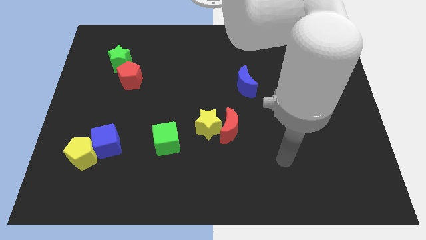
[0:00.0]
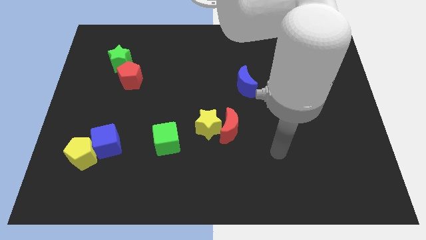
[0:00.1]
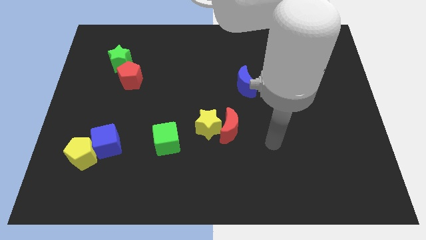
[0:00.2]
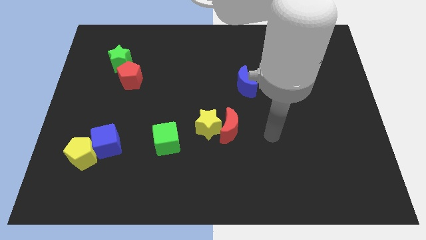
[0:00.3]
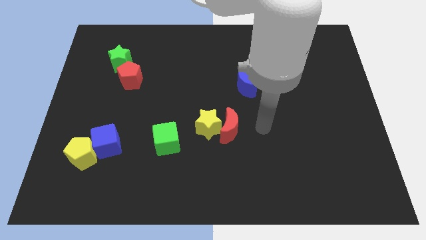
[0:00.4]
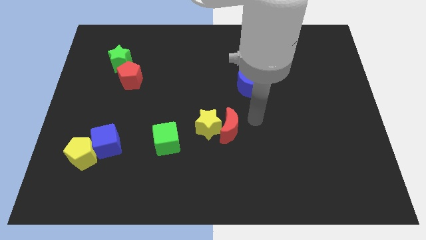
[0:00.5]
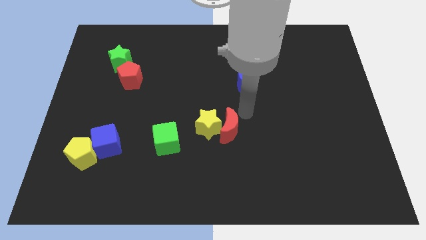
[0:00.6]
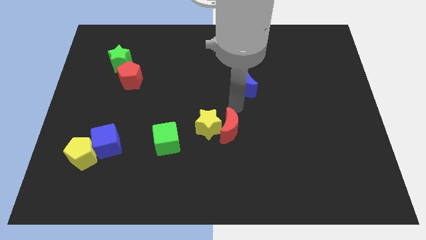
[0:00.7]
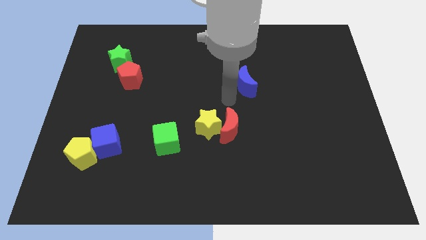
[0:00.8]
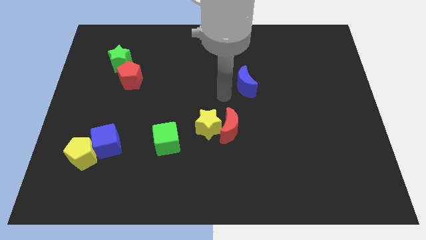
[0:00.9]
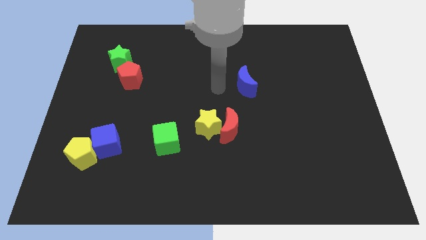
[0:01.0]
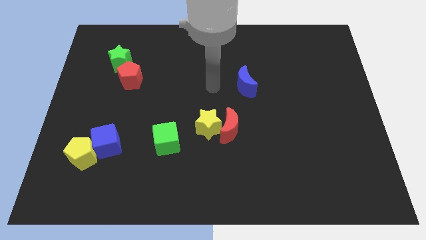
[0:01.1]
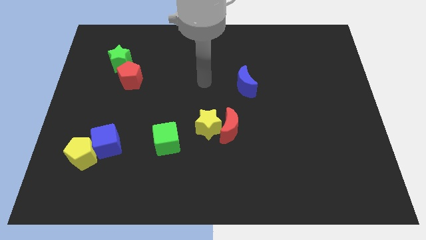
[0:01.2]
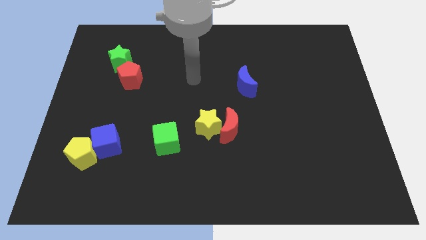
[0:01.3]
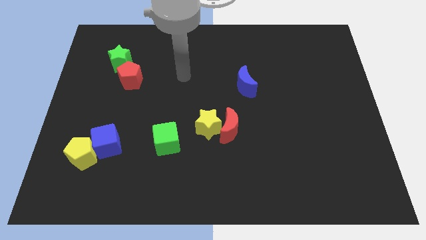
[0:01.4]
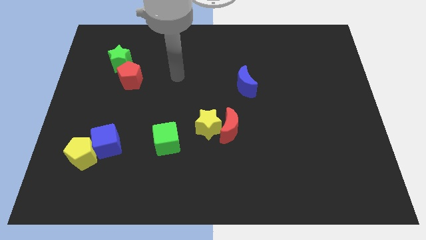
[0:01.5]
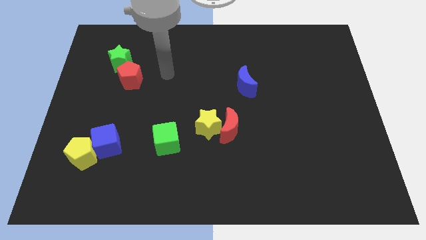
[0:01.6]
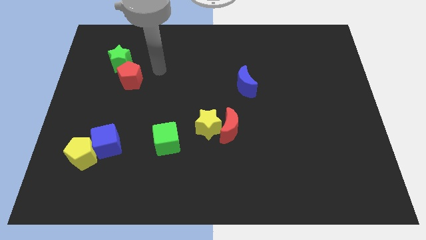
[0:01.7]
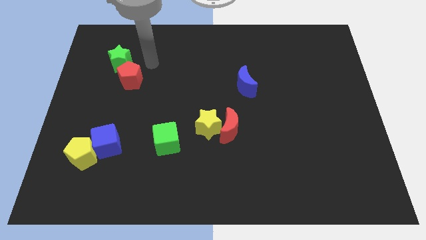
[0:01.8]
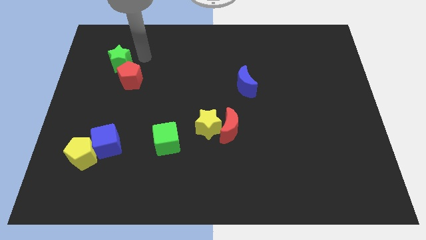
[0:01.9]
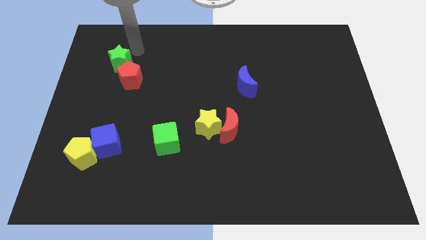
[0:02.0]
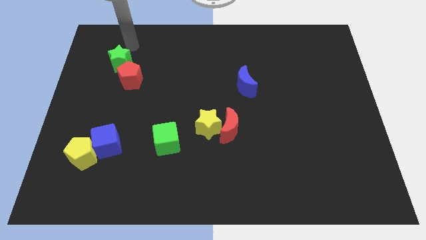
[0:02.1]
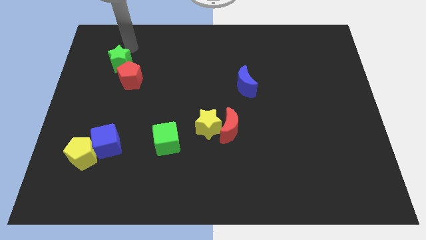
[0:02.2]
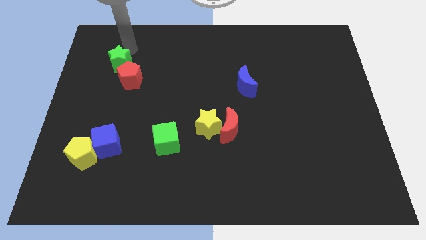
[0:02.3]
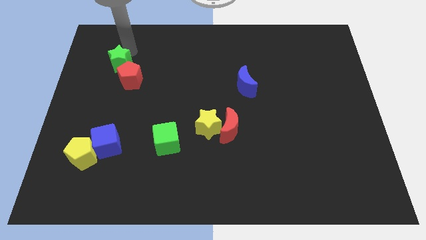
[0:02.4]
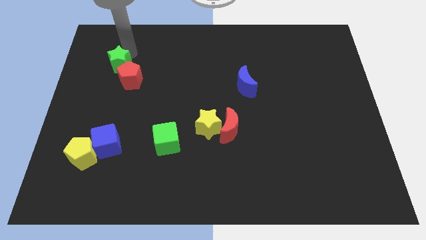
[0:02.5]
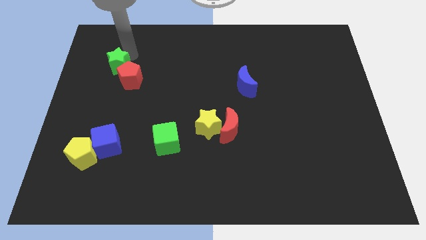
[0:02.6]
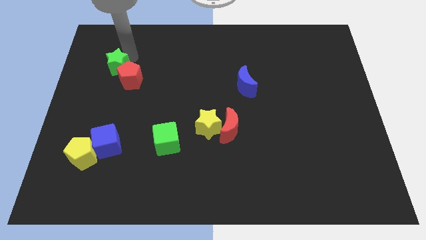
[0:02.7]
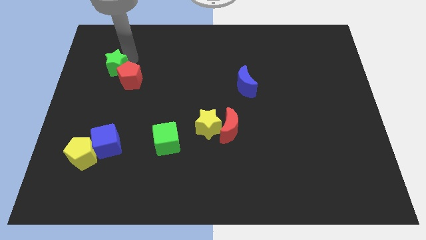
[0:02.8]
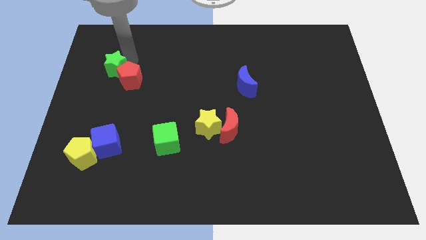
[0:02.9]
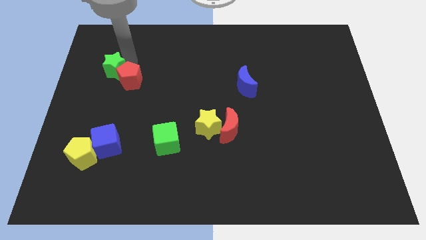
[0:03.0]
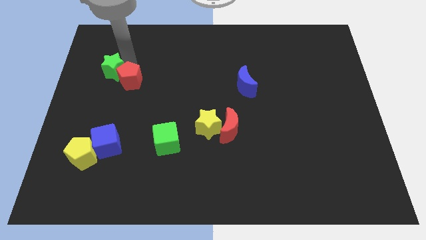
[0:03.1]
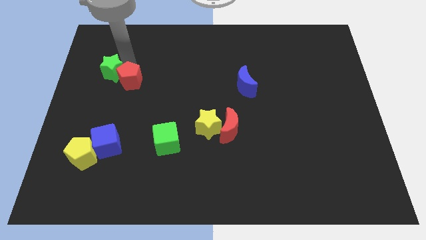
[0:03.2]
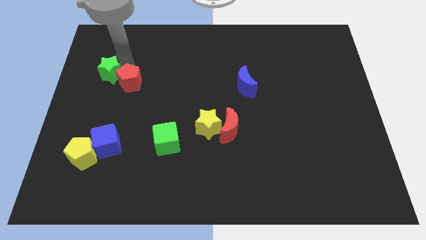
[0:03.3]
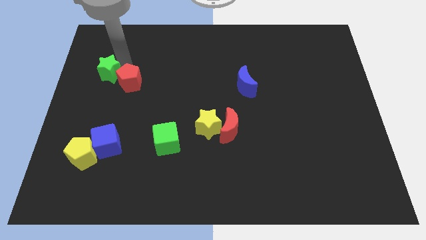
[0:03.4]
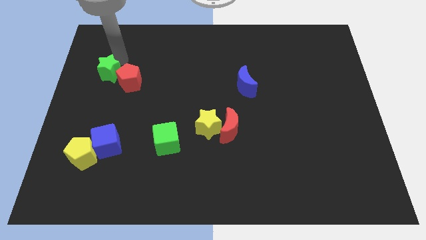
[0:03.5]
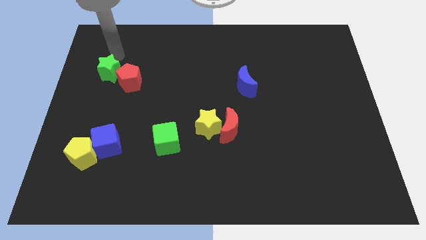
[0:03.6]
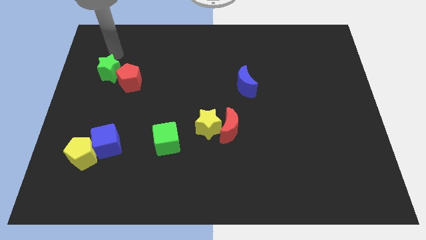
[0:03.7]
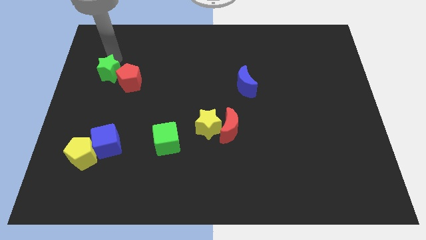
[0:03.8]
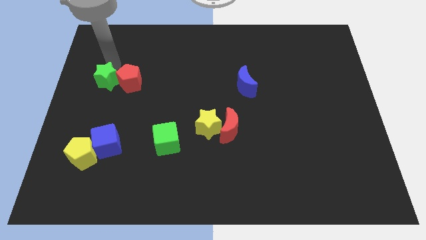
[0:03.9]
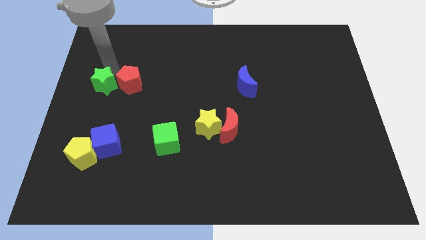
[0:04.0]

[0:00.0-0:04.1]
slightly move the green star downwards

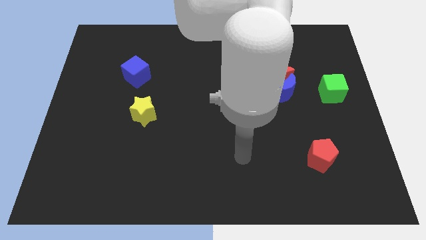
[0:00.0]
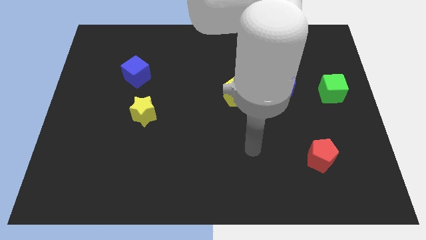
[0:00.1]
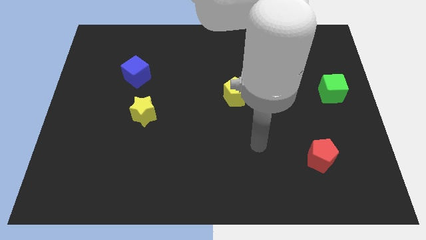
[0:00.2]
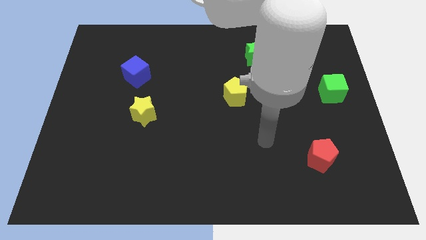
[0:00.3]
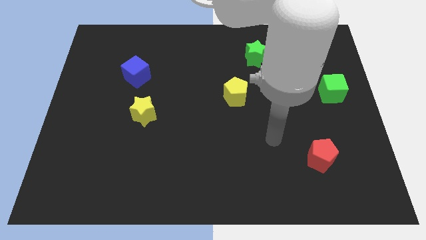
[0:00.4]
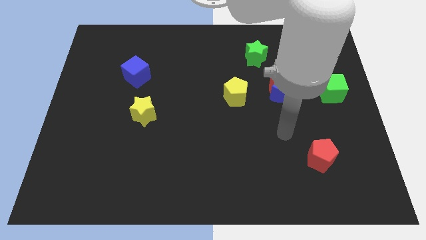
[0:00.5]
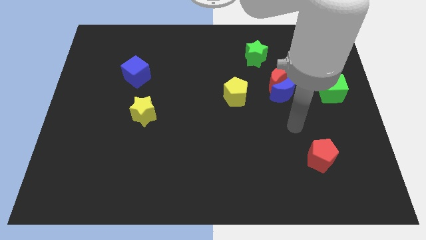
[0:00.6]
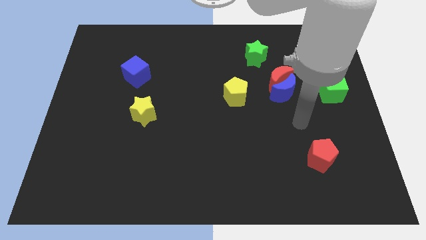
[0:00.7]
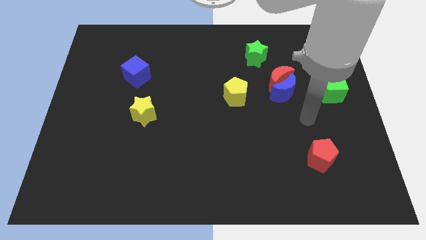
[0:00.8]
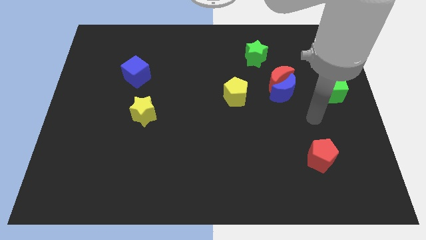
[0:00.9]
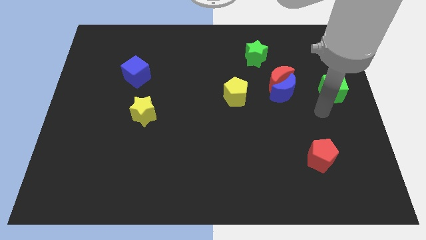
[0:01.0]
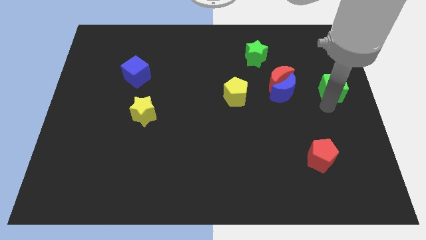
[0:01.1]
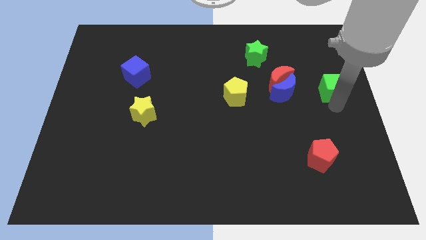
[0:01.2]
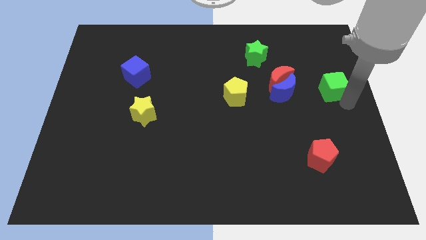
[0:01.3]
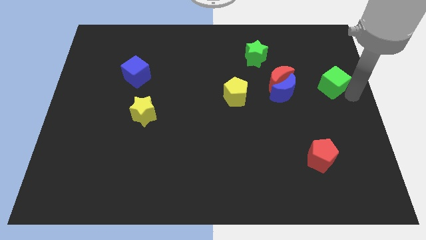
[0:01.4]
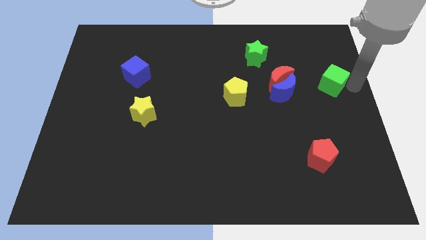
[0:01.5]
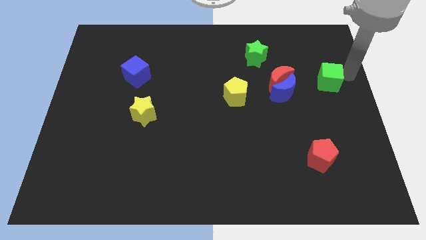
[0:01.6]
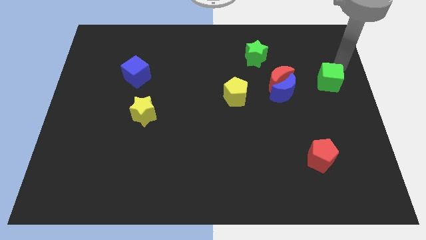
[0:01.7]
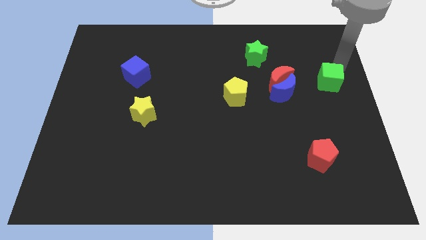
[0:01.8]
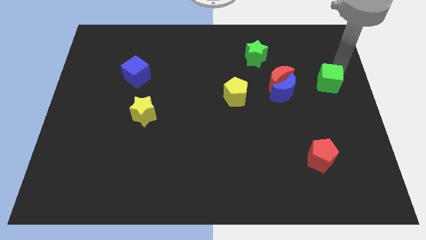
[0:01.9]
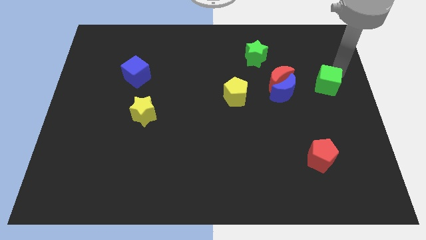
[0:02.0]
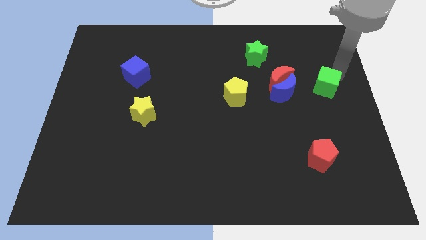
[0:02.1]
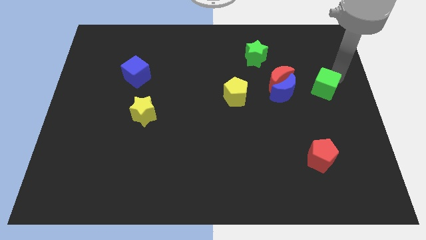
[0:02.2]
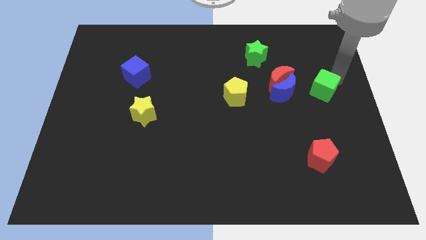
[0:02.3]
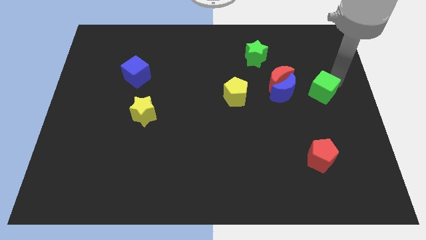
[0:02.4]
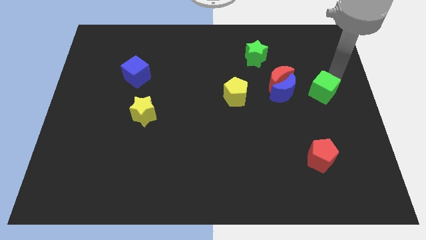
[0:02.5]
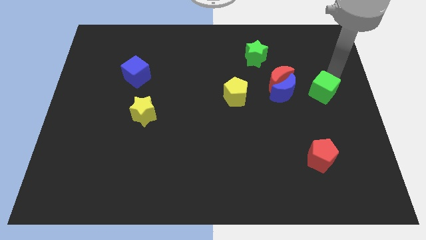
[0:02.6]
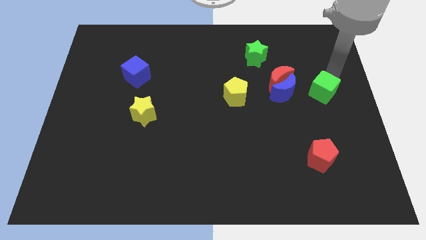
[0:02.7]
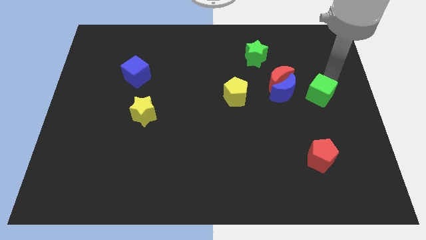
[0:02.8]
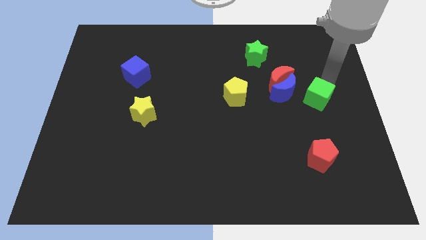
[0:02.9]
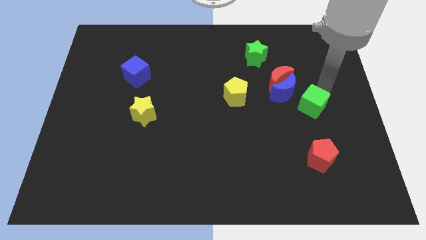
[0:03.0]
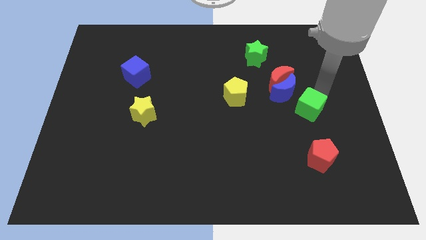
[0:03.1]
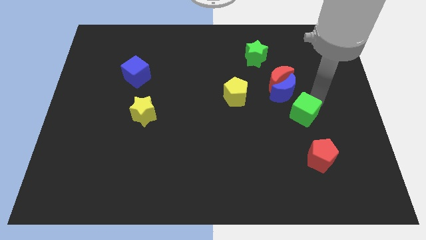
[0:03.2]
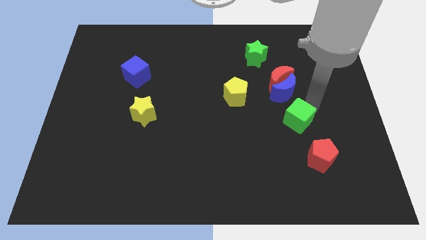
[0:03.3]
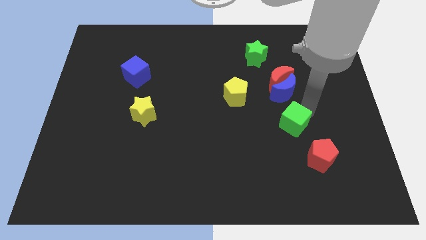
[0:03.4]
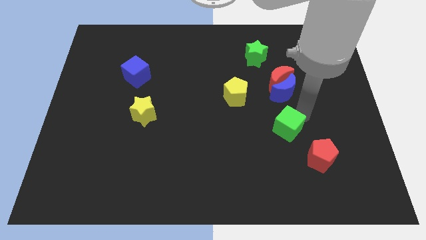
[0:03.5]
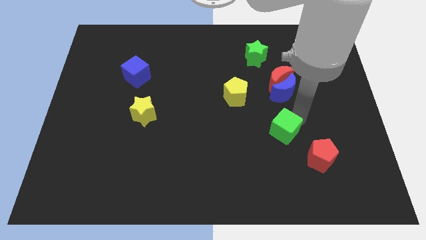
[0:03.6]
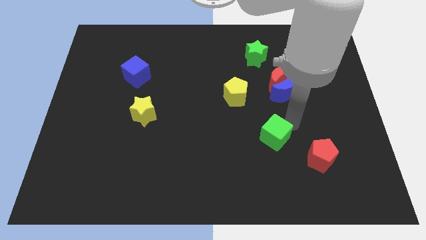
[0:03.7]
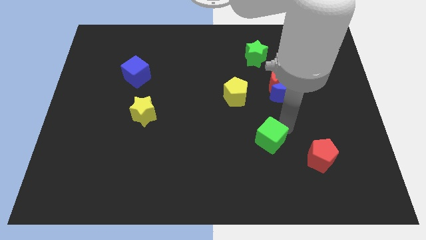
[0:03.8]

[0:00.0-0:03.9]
move the green cube down and left

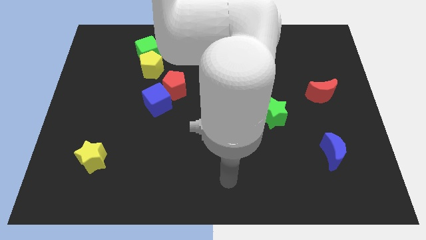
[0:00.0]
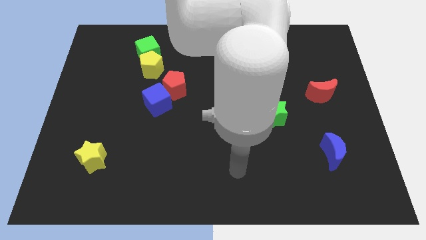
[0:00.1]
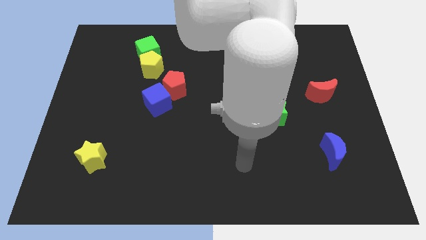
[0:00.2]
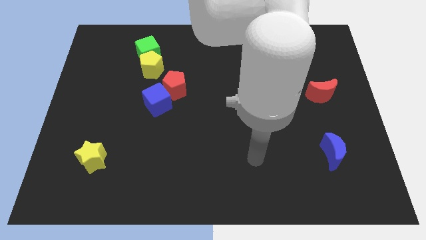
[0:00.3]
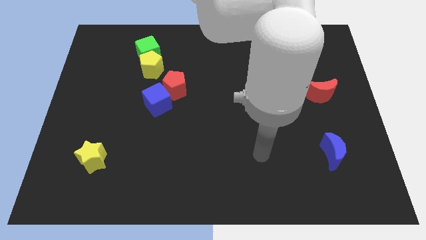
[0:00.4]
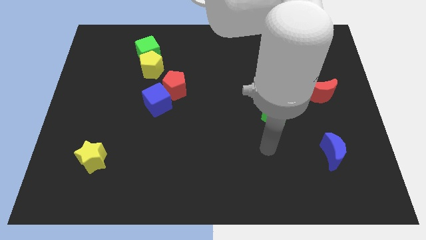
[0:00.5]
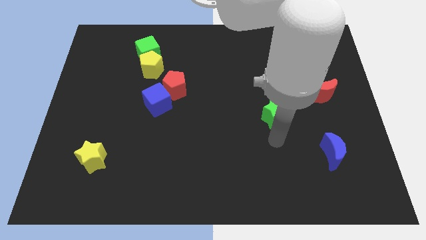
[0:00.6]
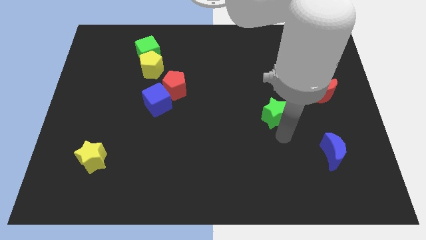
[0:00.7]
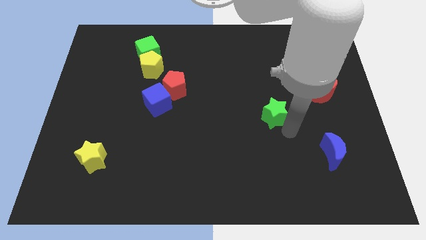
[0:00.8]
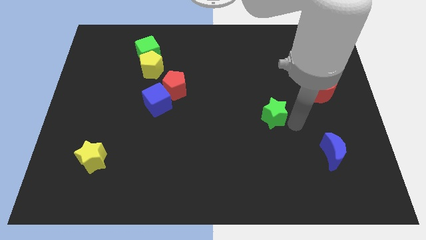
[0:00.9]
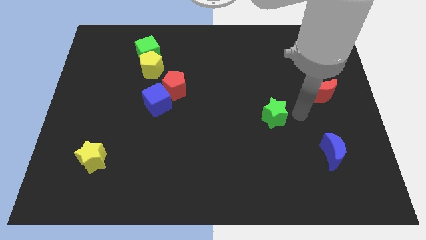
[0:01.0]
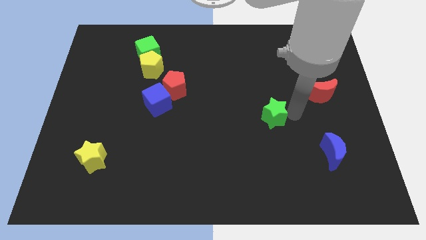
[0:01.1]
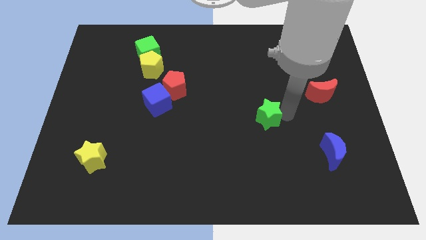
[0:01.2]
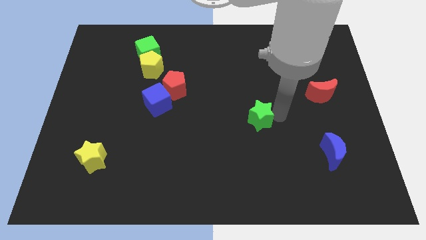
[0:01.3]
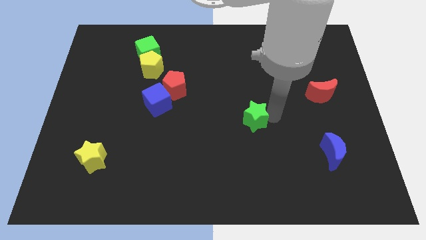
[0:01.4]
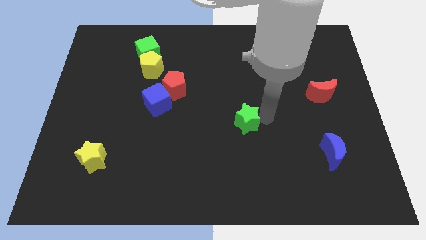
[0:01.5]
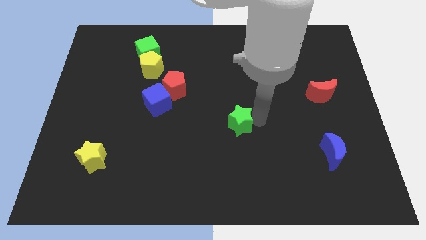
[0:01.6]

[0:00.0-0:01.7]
push the green star to the left slightly
